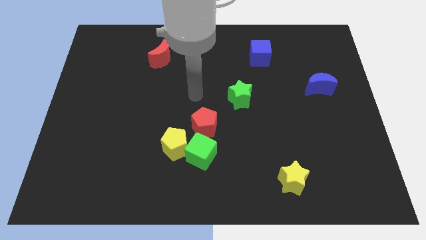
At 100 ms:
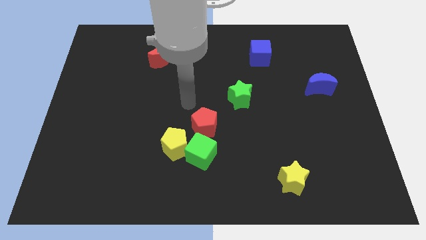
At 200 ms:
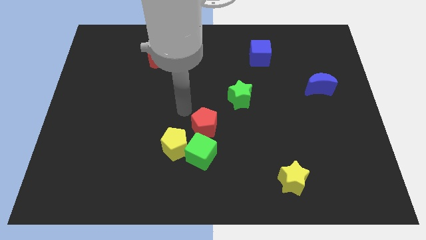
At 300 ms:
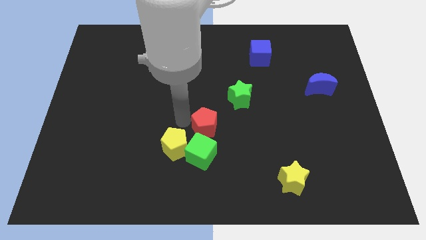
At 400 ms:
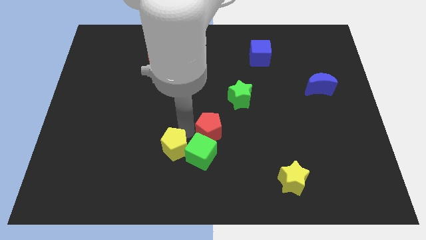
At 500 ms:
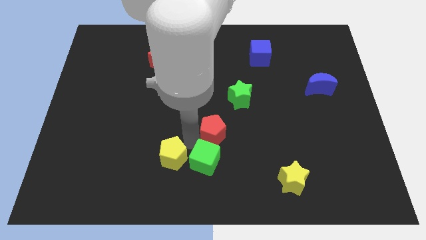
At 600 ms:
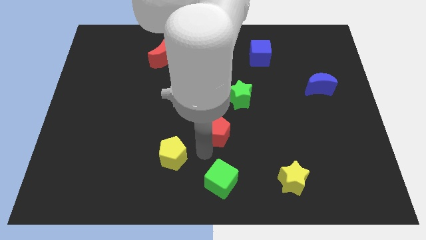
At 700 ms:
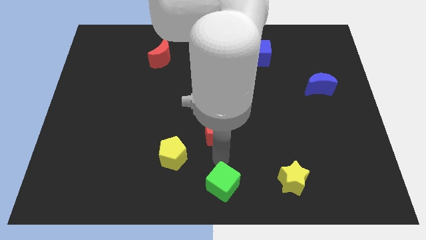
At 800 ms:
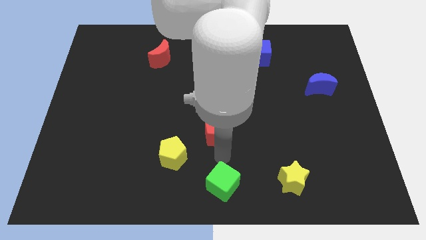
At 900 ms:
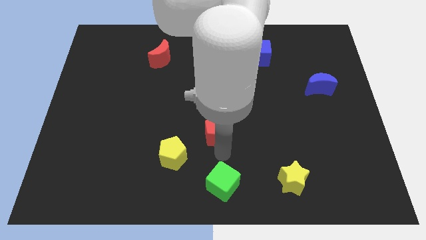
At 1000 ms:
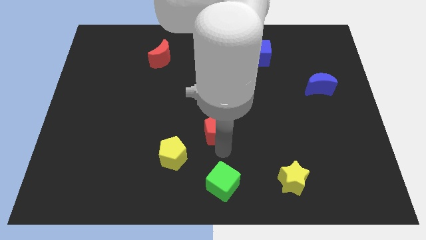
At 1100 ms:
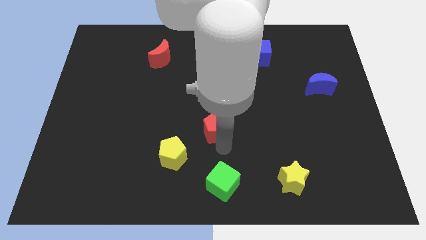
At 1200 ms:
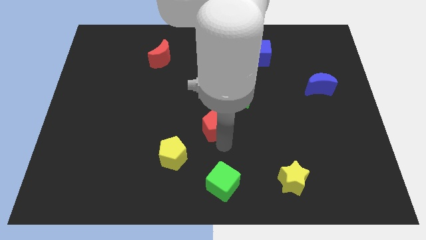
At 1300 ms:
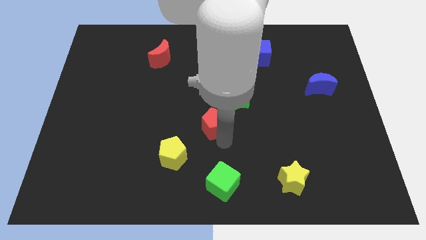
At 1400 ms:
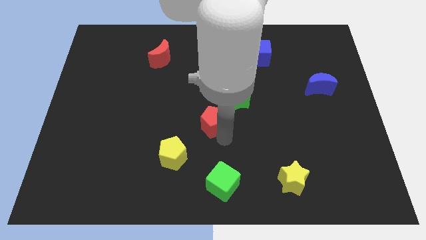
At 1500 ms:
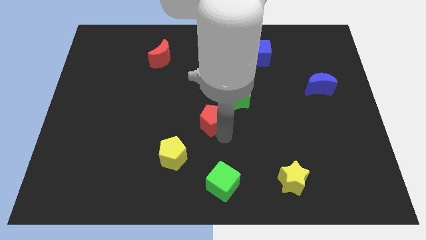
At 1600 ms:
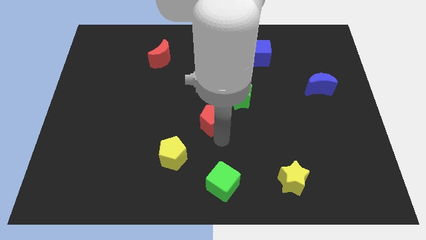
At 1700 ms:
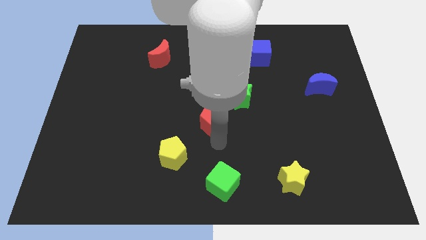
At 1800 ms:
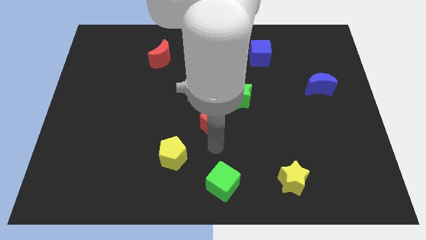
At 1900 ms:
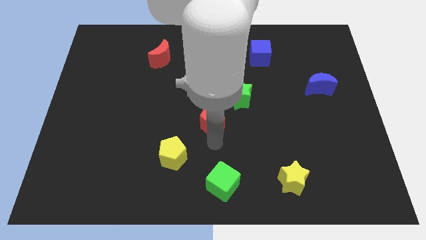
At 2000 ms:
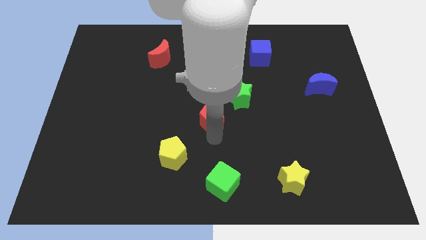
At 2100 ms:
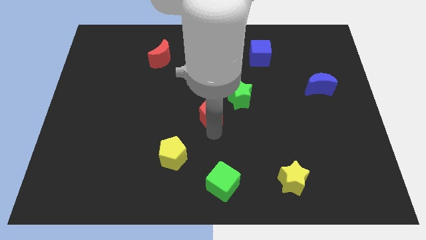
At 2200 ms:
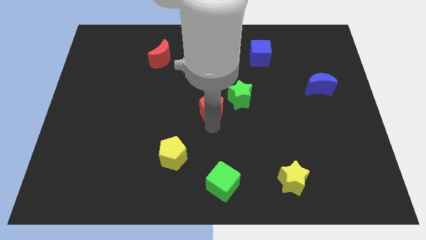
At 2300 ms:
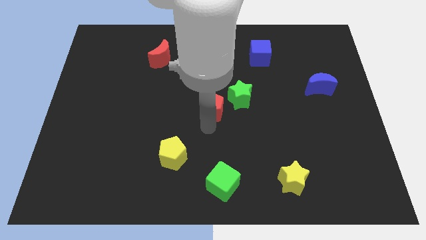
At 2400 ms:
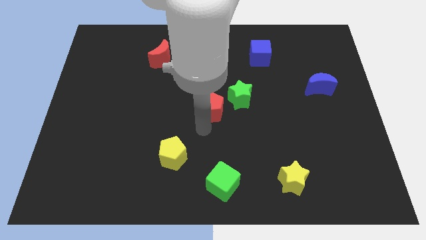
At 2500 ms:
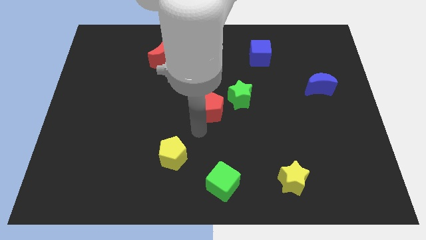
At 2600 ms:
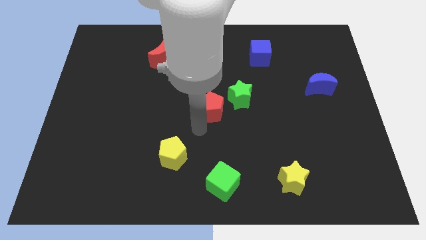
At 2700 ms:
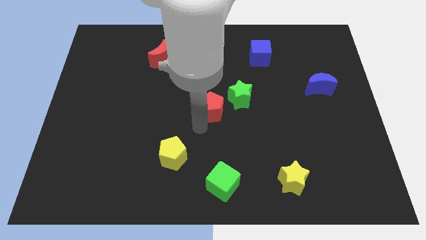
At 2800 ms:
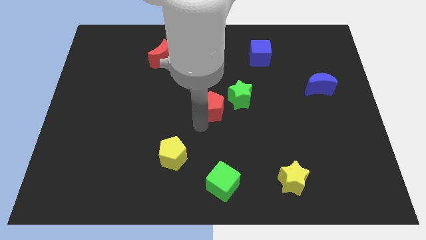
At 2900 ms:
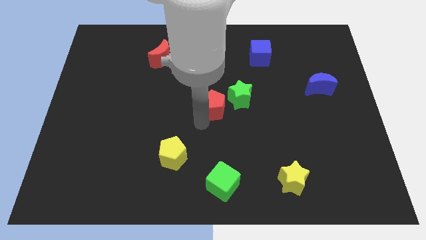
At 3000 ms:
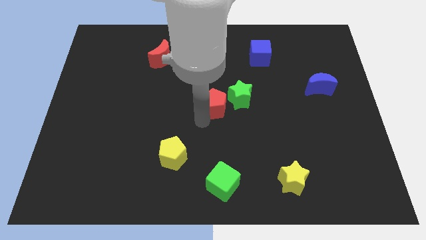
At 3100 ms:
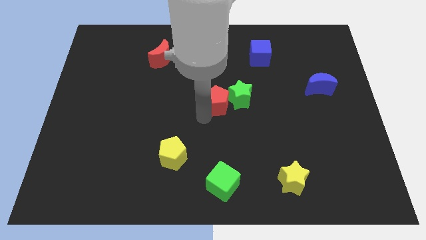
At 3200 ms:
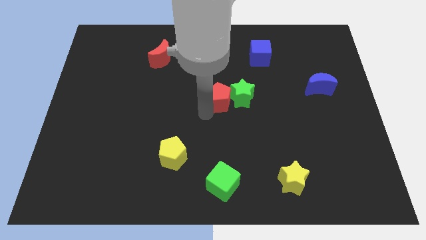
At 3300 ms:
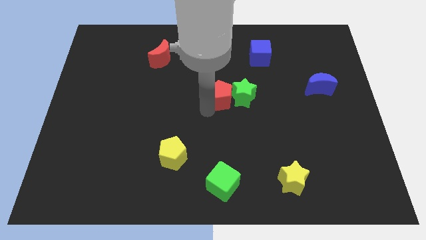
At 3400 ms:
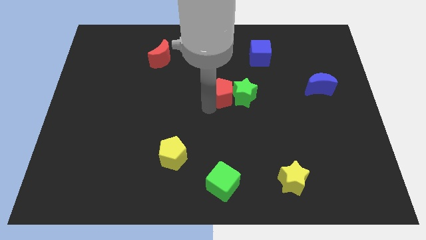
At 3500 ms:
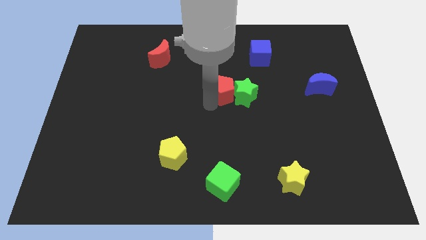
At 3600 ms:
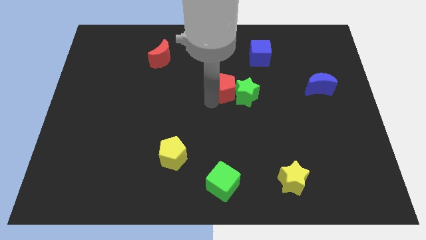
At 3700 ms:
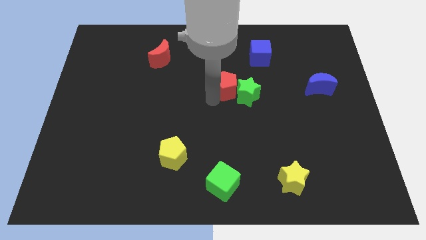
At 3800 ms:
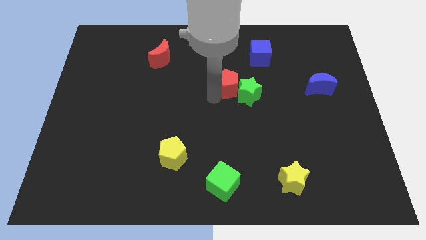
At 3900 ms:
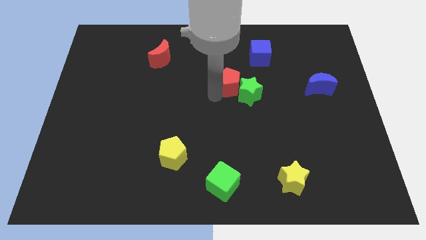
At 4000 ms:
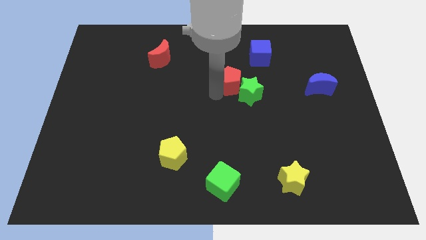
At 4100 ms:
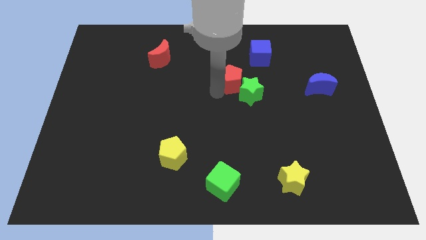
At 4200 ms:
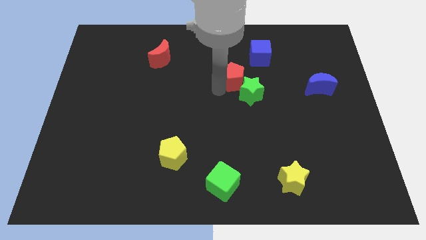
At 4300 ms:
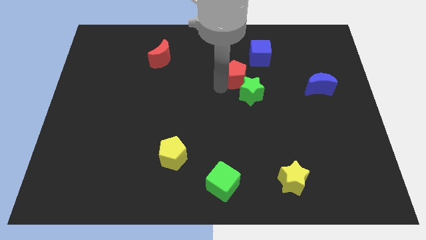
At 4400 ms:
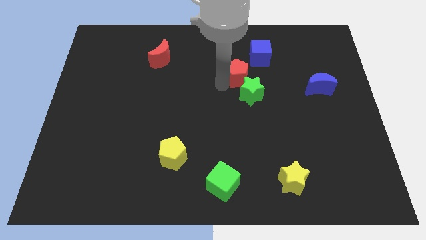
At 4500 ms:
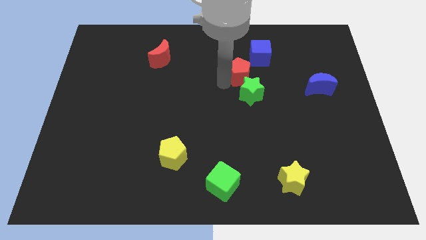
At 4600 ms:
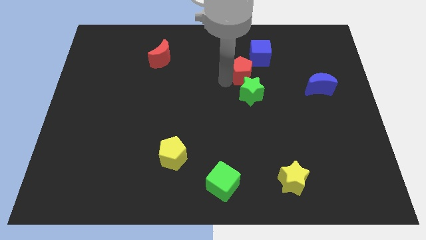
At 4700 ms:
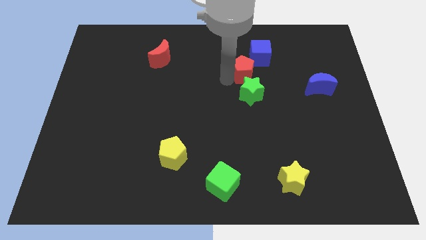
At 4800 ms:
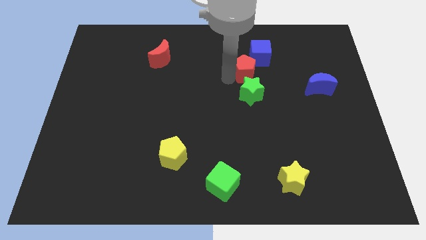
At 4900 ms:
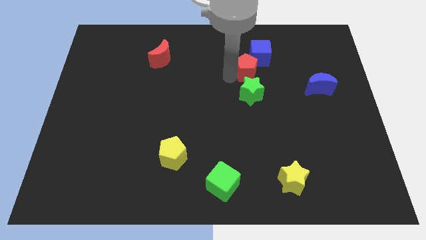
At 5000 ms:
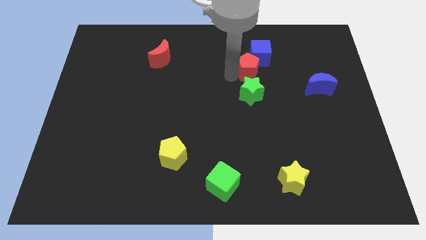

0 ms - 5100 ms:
slide the red pentagon next to the blue cube

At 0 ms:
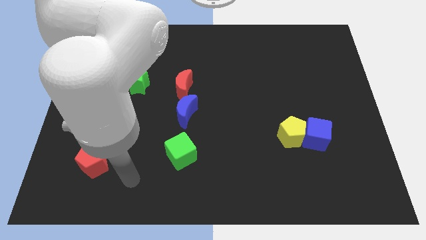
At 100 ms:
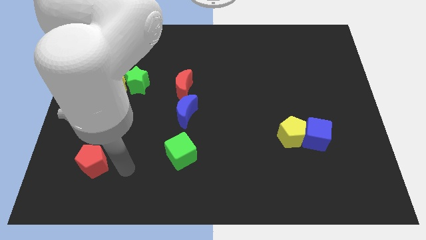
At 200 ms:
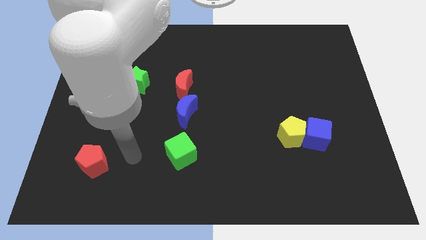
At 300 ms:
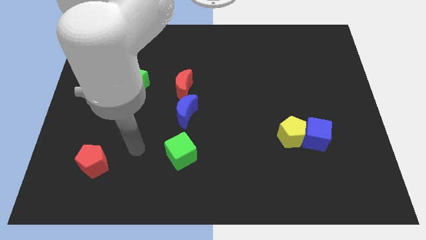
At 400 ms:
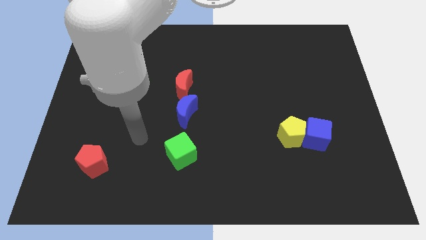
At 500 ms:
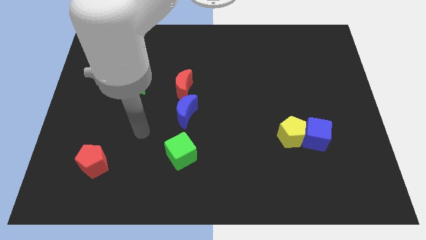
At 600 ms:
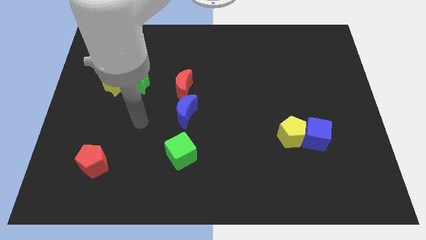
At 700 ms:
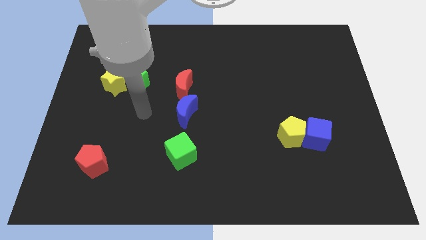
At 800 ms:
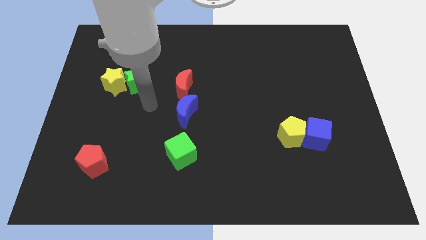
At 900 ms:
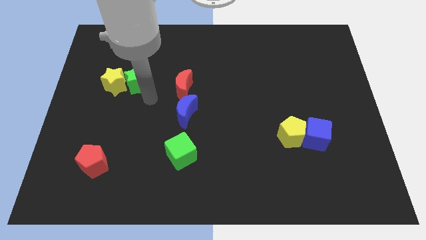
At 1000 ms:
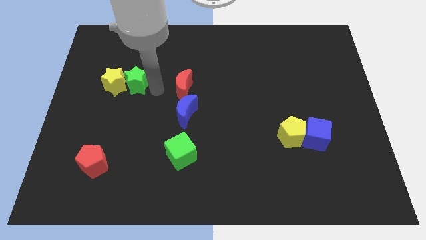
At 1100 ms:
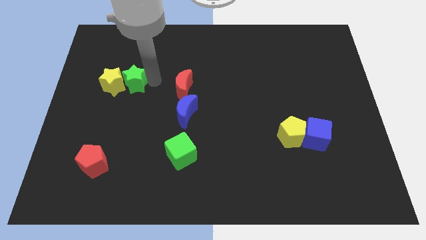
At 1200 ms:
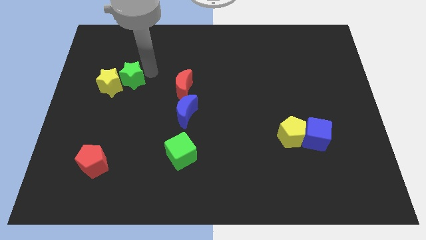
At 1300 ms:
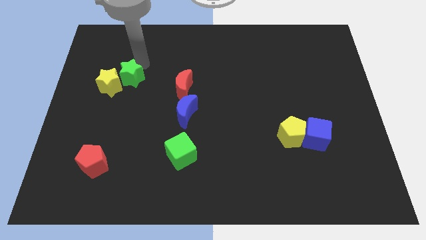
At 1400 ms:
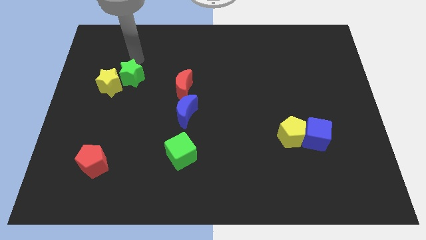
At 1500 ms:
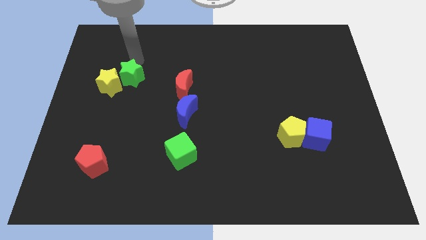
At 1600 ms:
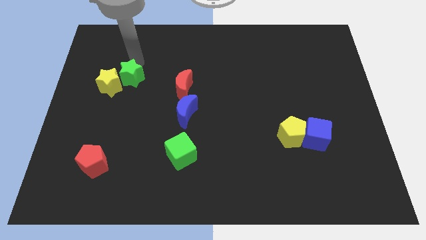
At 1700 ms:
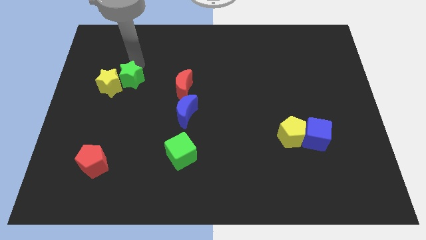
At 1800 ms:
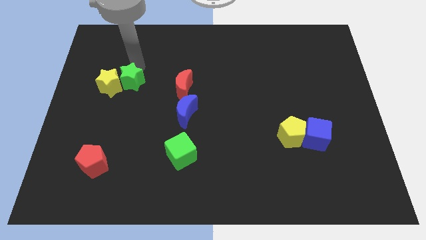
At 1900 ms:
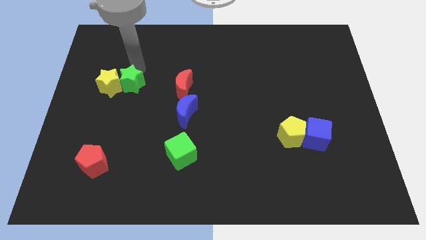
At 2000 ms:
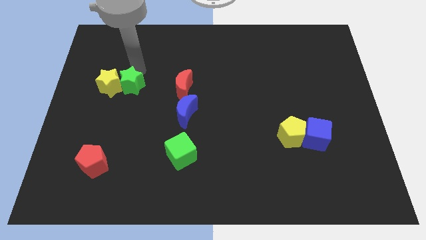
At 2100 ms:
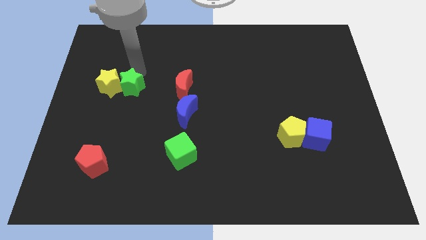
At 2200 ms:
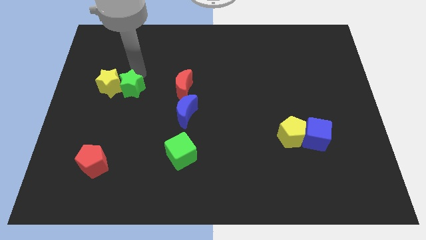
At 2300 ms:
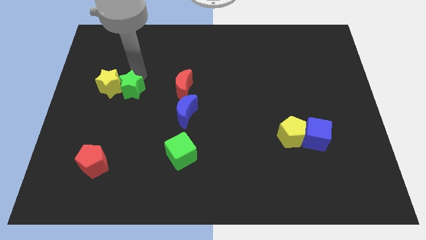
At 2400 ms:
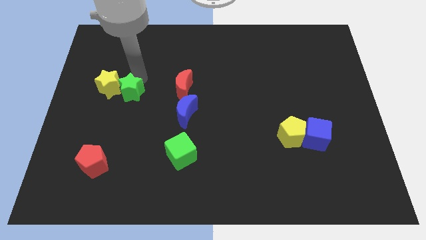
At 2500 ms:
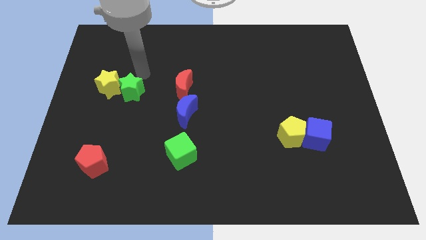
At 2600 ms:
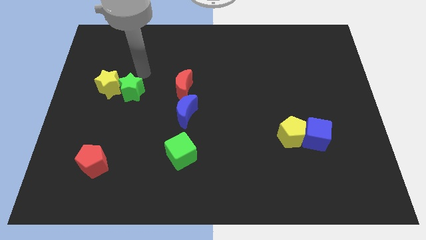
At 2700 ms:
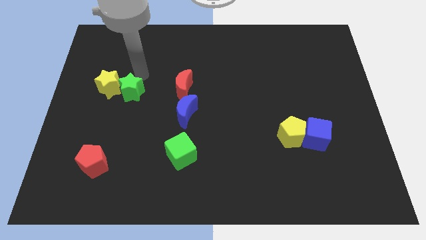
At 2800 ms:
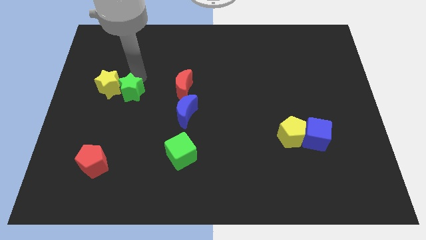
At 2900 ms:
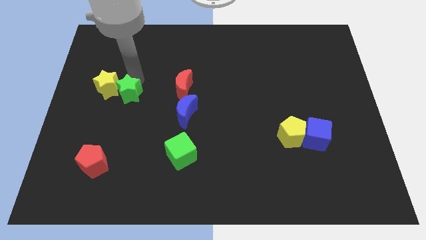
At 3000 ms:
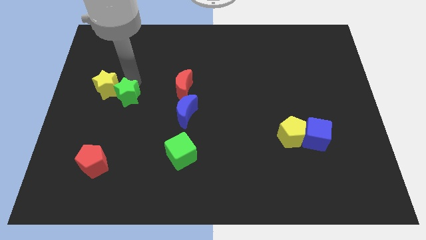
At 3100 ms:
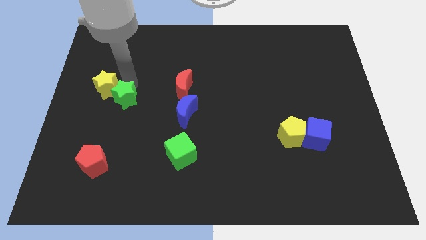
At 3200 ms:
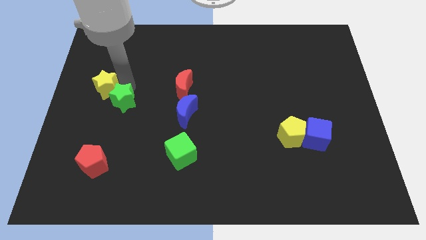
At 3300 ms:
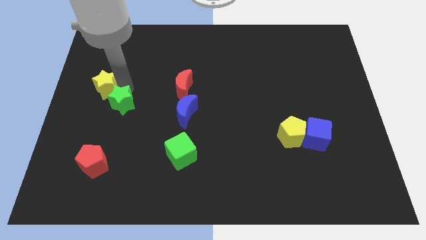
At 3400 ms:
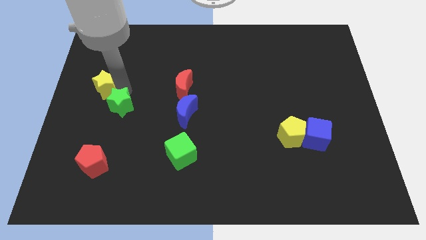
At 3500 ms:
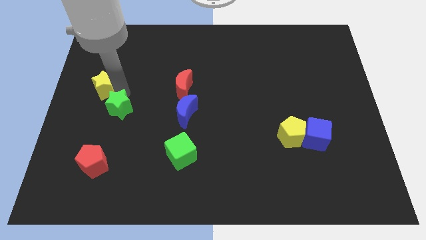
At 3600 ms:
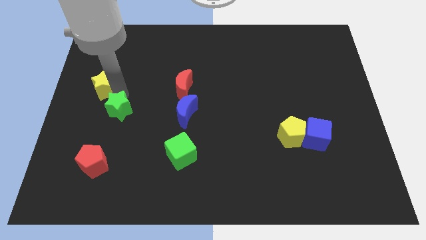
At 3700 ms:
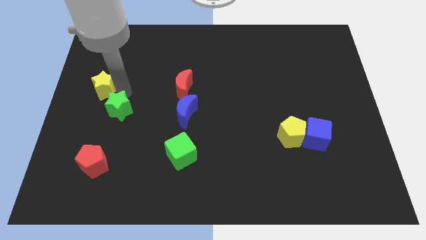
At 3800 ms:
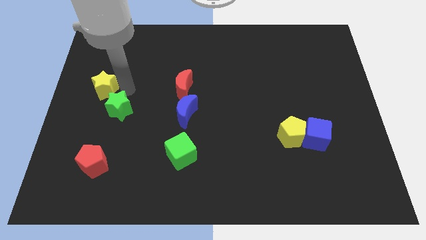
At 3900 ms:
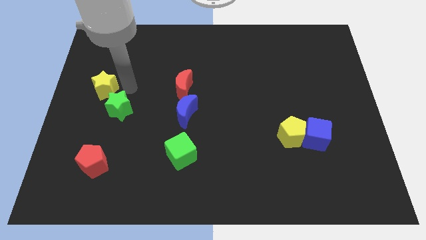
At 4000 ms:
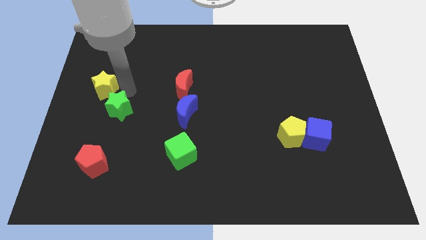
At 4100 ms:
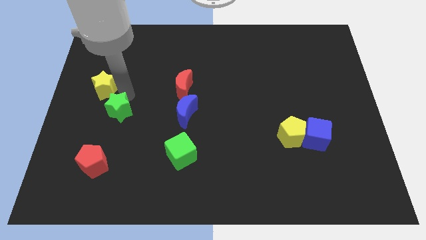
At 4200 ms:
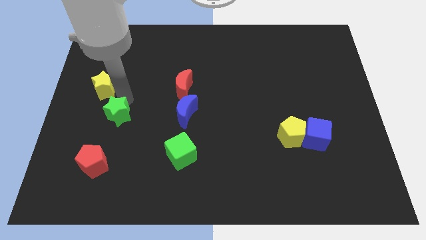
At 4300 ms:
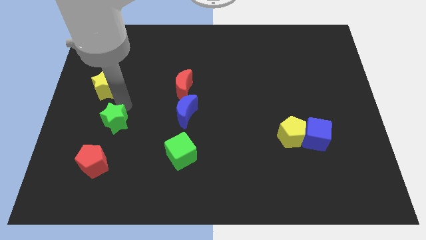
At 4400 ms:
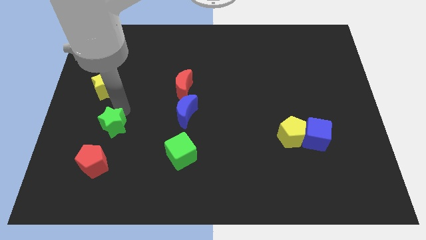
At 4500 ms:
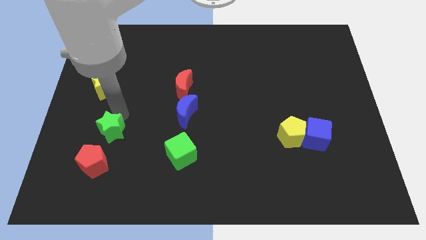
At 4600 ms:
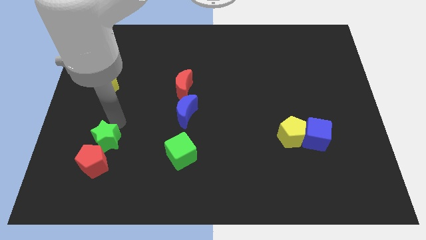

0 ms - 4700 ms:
slide the green star to the red pentagon
